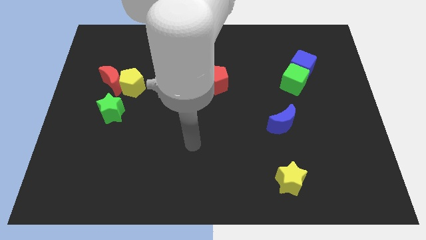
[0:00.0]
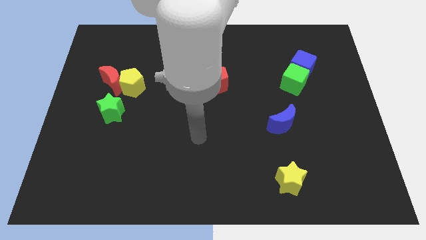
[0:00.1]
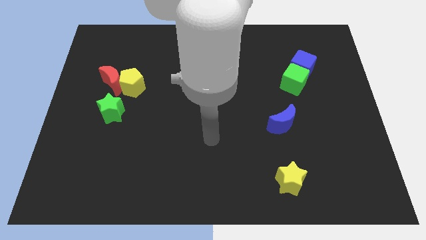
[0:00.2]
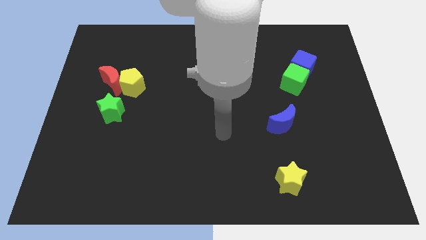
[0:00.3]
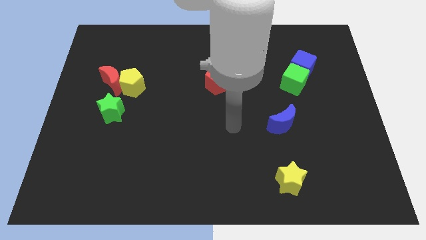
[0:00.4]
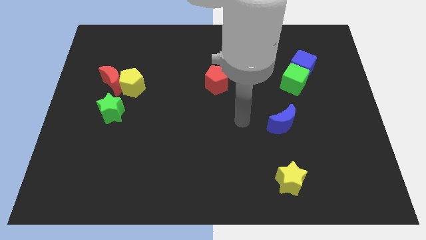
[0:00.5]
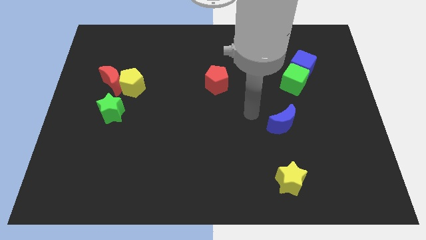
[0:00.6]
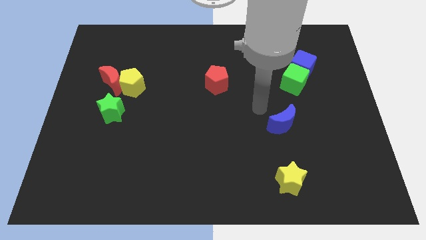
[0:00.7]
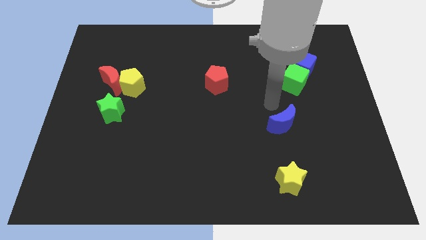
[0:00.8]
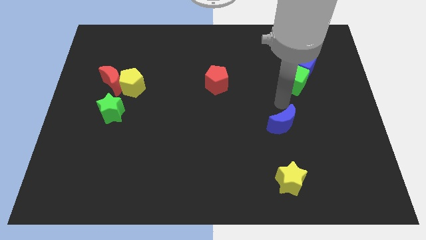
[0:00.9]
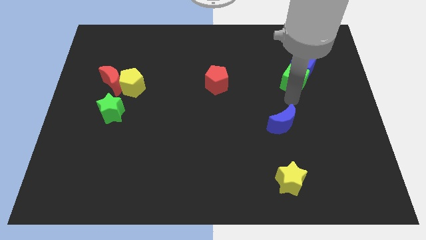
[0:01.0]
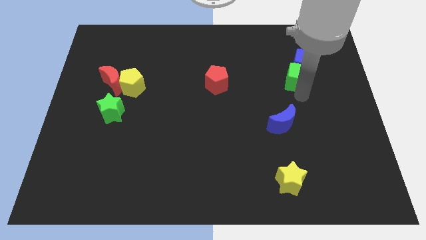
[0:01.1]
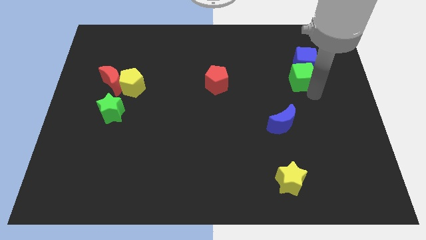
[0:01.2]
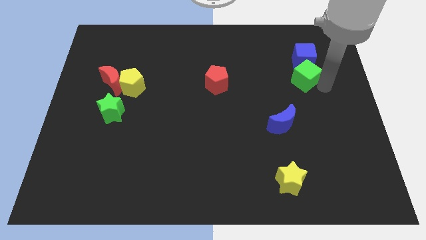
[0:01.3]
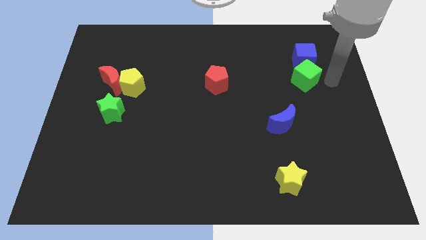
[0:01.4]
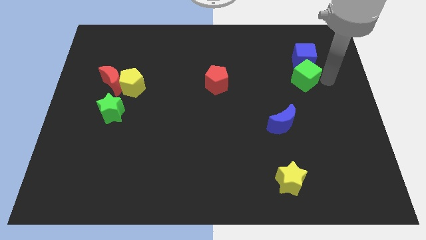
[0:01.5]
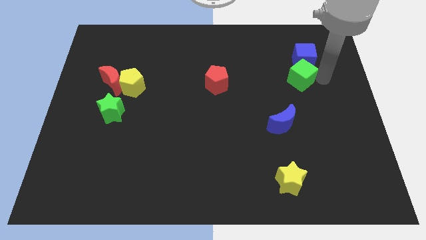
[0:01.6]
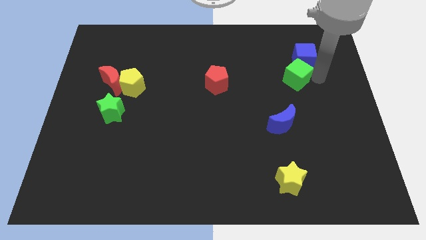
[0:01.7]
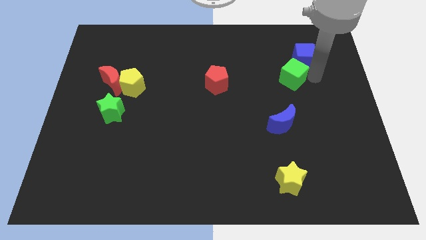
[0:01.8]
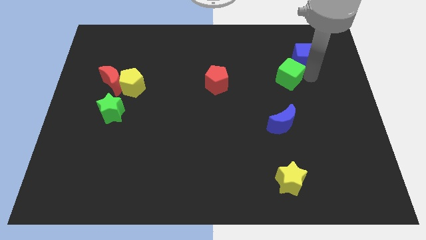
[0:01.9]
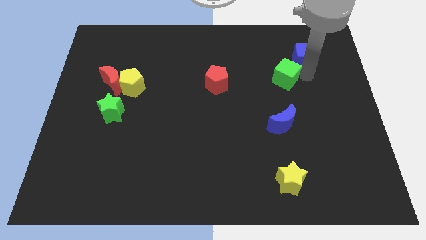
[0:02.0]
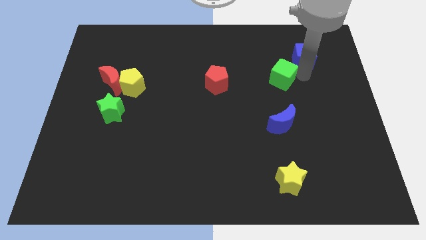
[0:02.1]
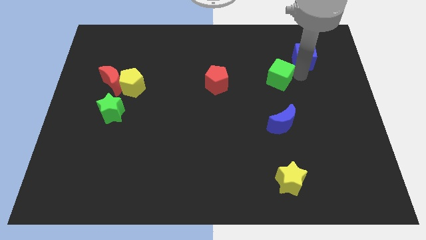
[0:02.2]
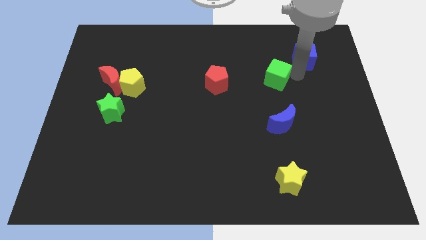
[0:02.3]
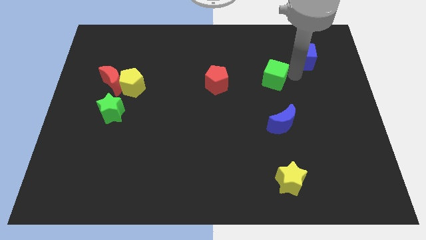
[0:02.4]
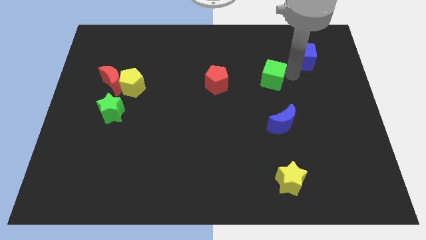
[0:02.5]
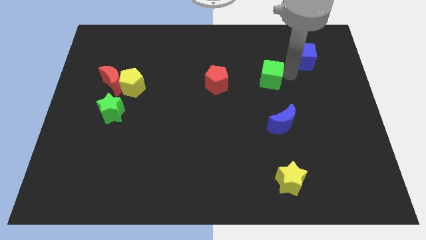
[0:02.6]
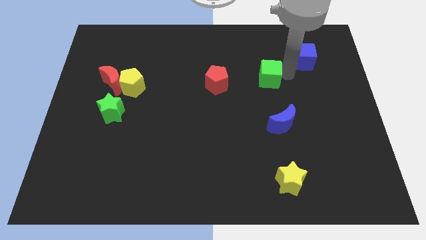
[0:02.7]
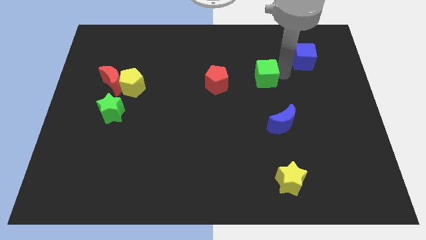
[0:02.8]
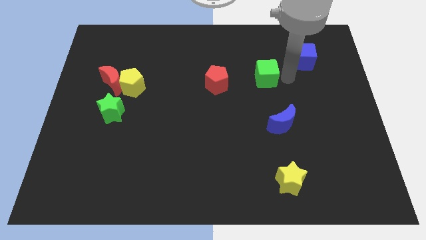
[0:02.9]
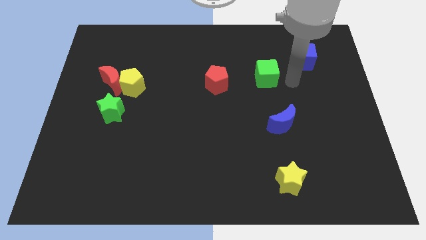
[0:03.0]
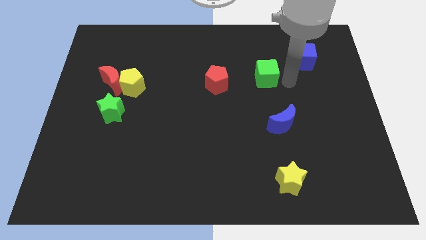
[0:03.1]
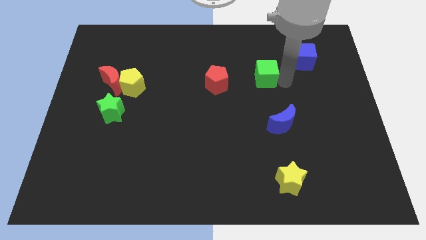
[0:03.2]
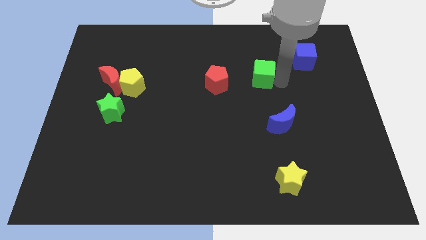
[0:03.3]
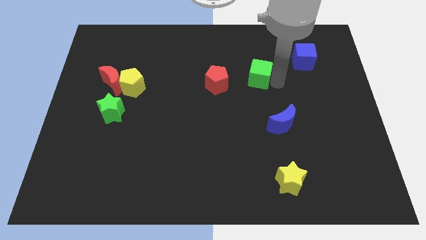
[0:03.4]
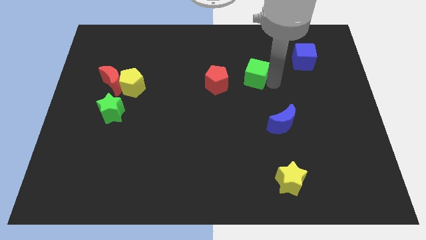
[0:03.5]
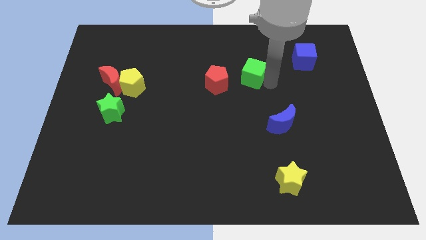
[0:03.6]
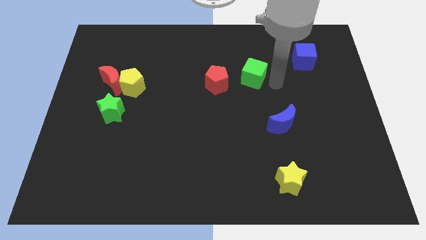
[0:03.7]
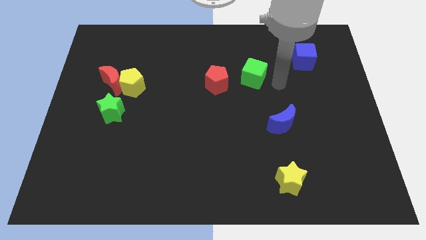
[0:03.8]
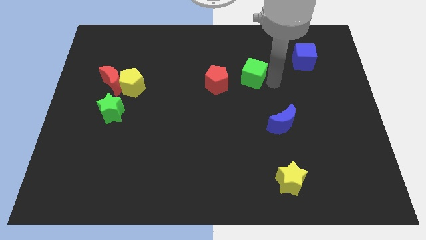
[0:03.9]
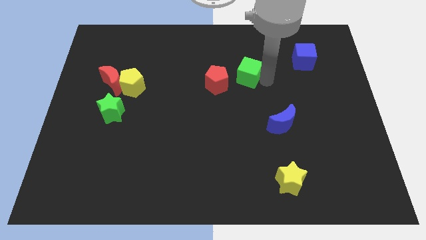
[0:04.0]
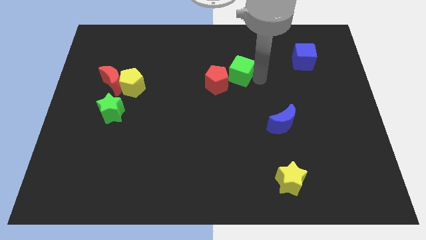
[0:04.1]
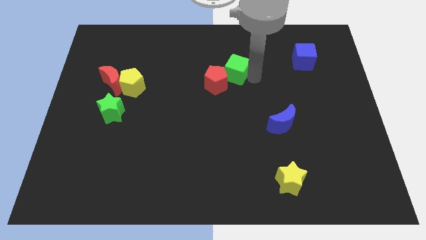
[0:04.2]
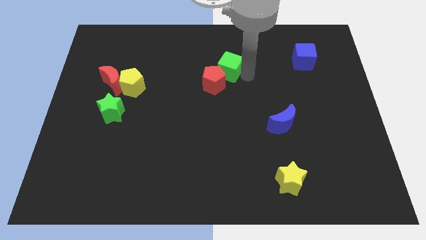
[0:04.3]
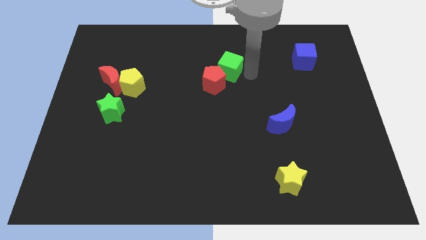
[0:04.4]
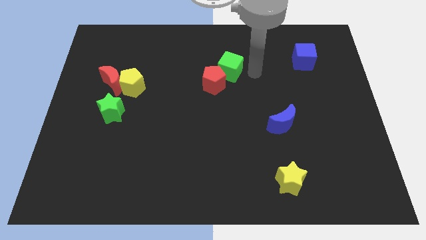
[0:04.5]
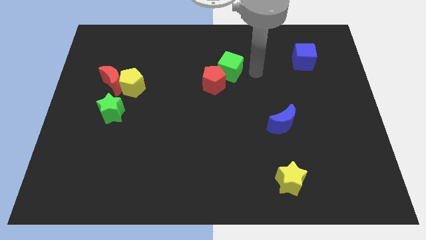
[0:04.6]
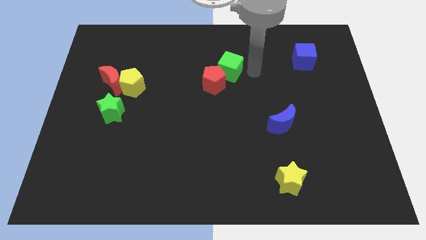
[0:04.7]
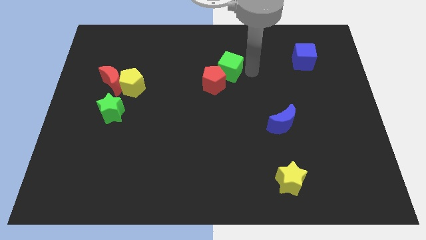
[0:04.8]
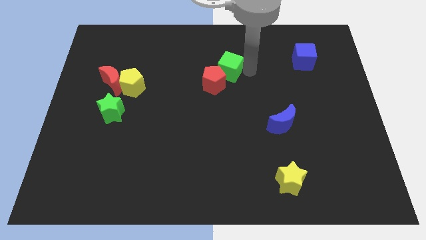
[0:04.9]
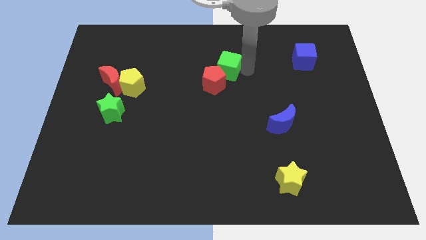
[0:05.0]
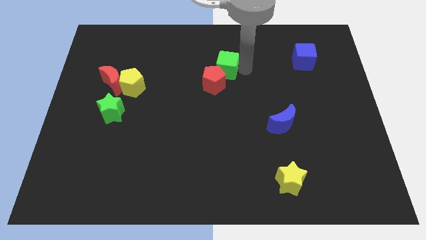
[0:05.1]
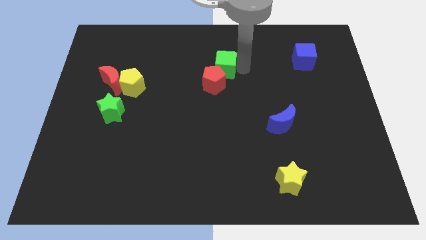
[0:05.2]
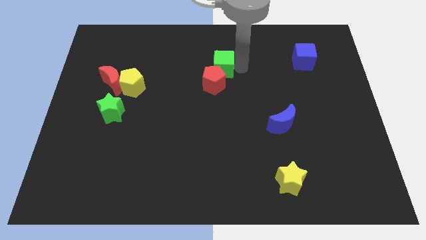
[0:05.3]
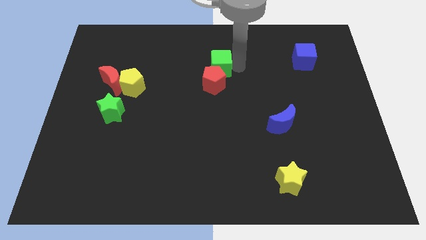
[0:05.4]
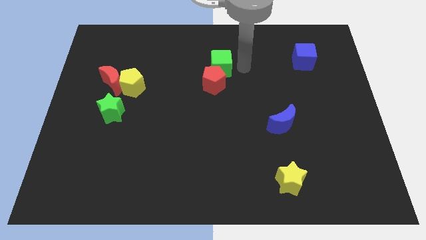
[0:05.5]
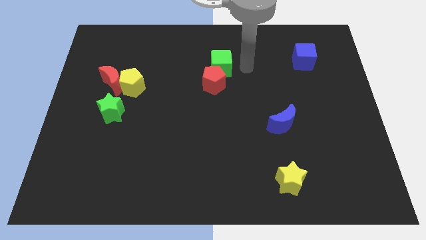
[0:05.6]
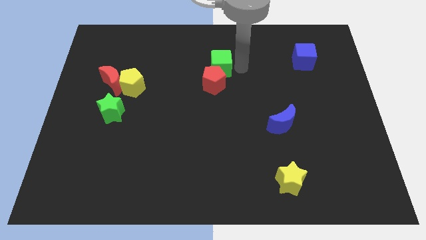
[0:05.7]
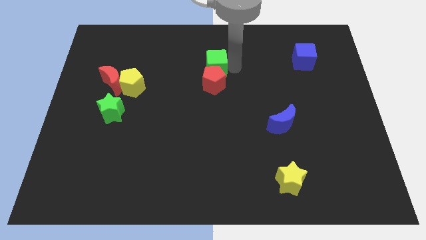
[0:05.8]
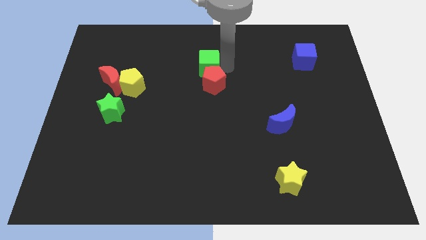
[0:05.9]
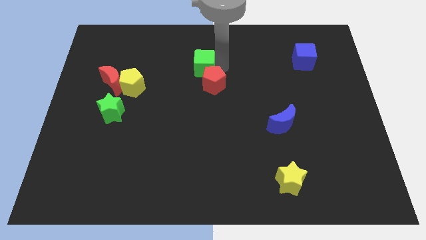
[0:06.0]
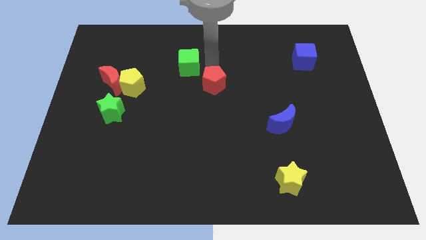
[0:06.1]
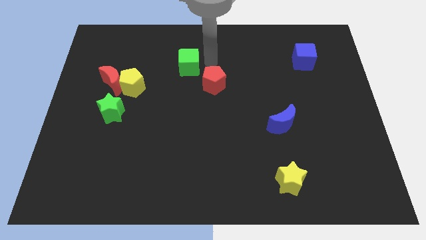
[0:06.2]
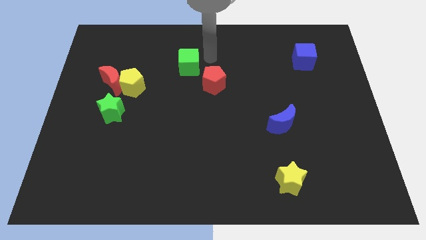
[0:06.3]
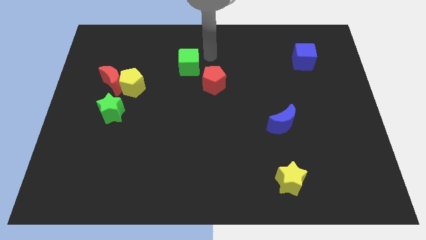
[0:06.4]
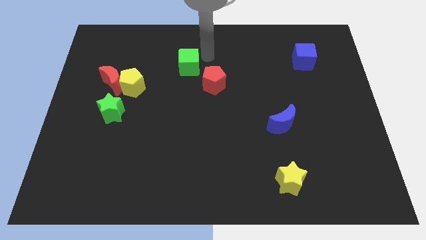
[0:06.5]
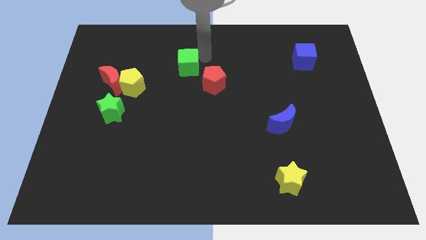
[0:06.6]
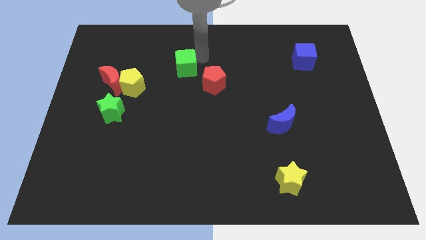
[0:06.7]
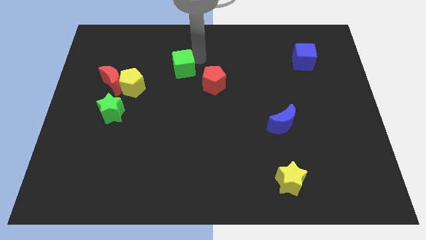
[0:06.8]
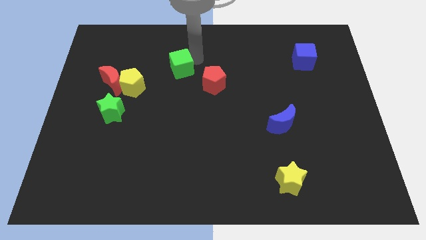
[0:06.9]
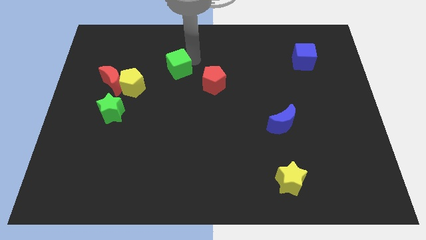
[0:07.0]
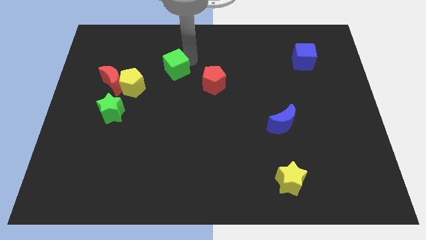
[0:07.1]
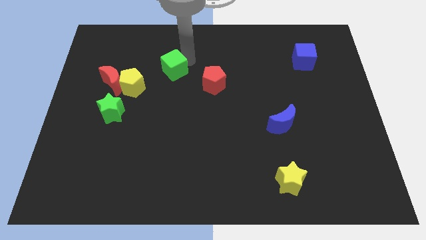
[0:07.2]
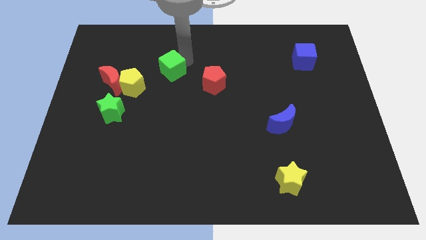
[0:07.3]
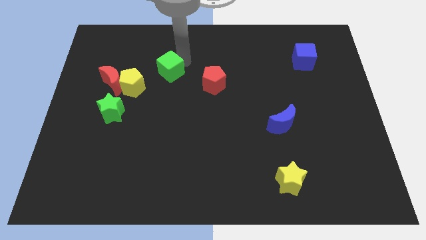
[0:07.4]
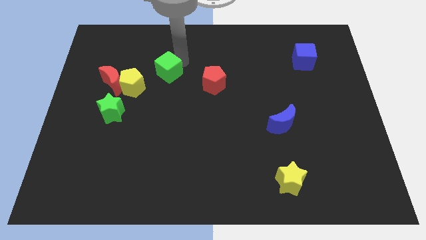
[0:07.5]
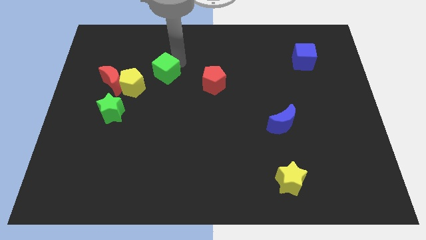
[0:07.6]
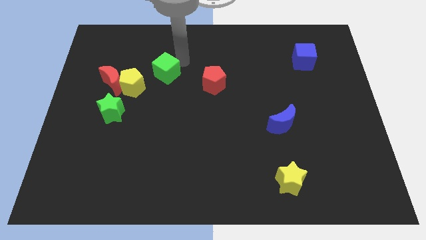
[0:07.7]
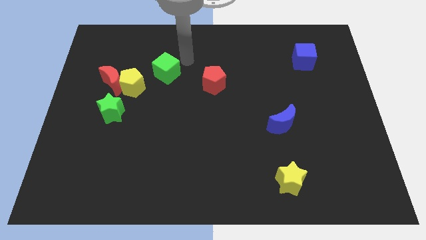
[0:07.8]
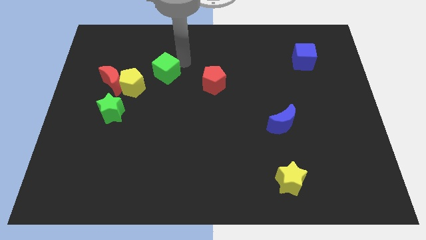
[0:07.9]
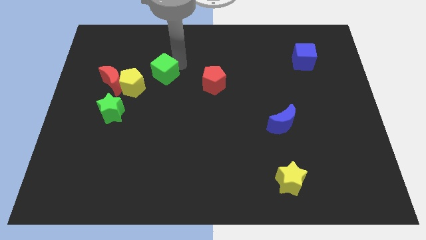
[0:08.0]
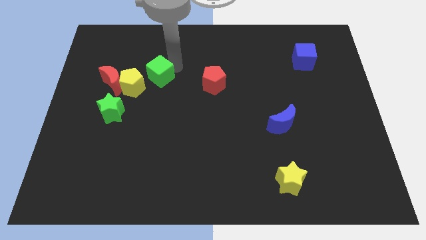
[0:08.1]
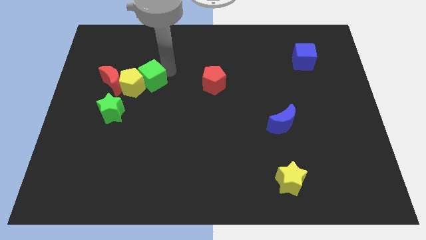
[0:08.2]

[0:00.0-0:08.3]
push the green cube close to the yellow pentagon
